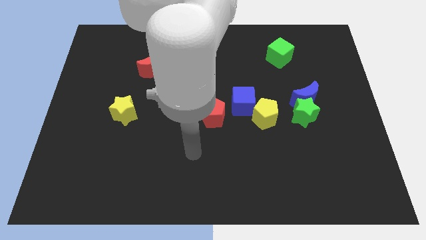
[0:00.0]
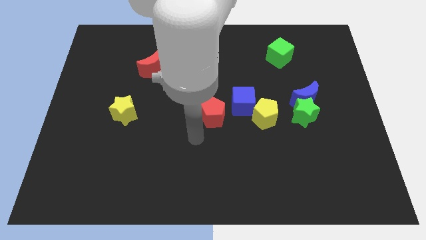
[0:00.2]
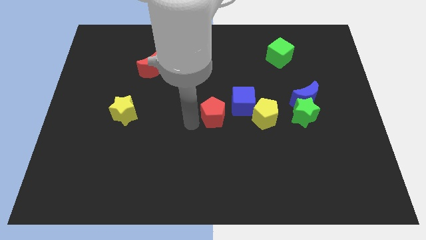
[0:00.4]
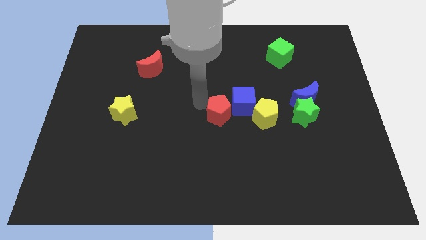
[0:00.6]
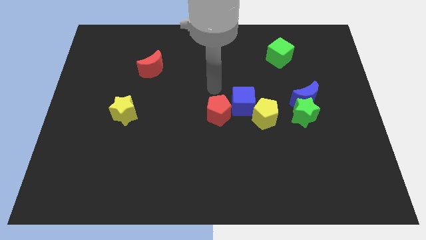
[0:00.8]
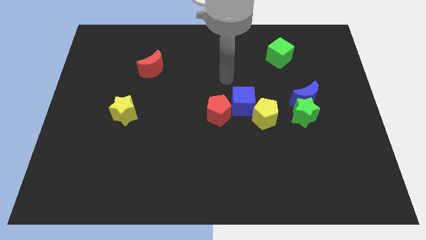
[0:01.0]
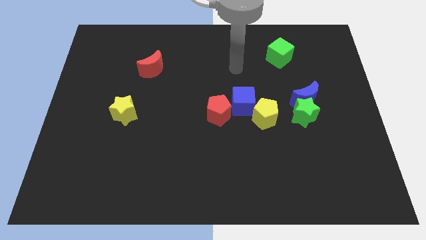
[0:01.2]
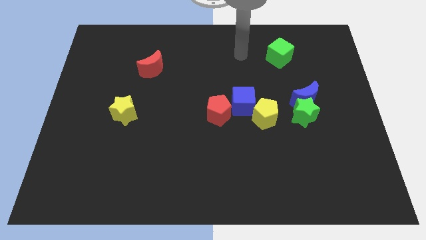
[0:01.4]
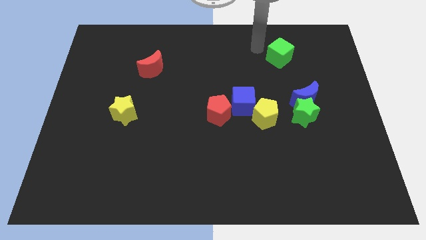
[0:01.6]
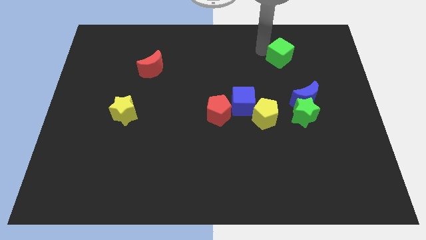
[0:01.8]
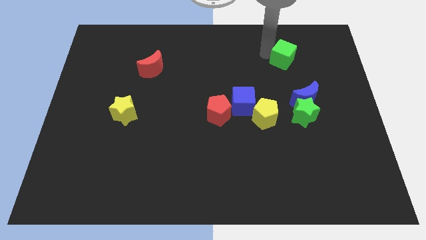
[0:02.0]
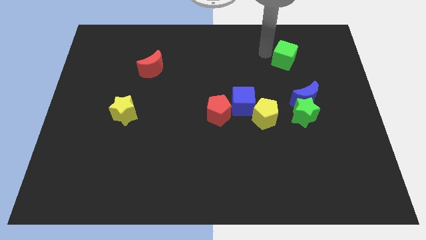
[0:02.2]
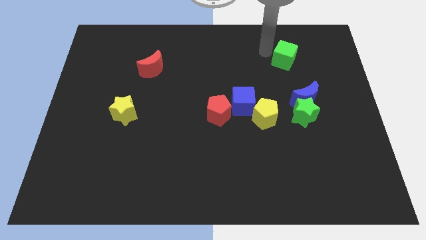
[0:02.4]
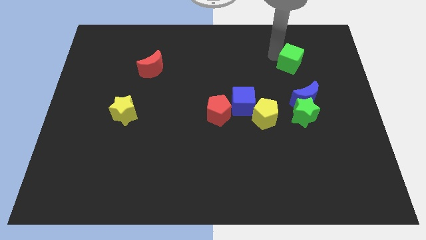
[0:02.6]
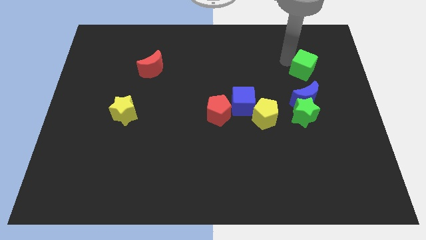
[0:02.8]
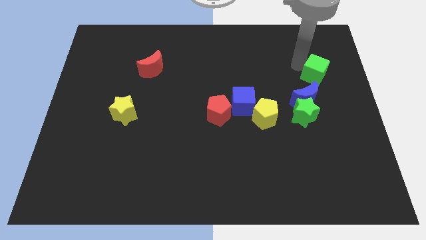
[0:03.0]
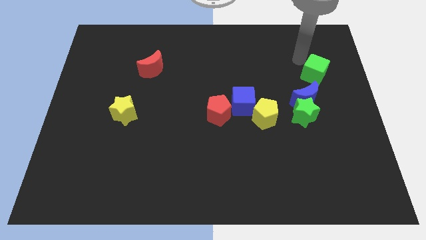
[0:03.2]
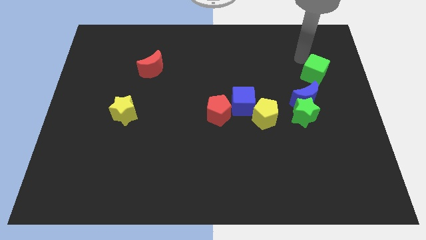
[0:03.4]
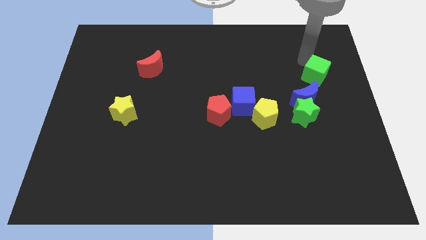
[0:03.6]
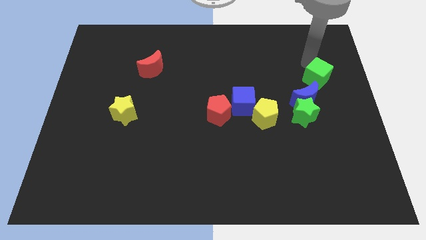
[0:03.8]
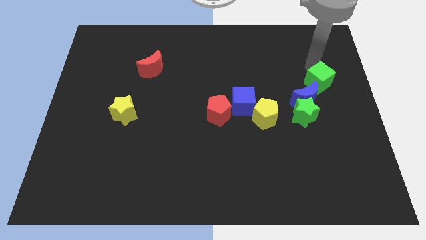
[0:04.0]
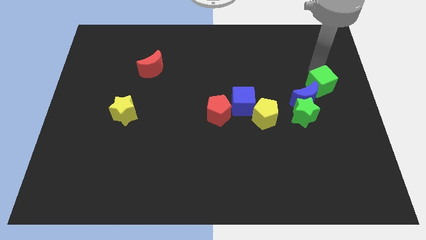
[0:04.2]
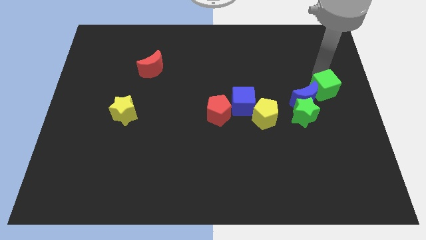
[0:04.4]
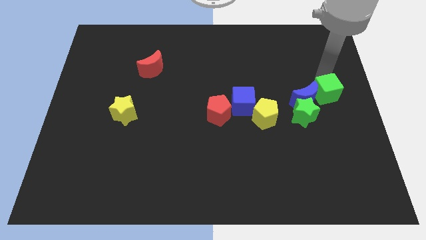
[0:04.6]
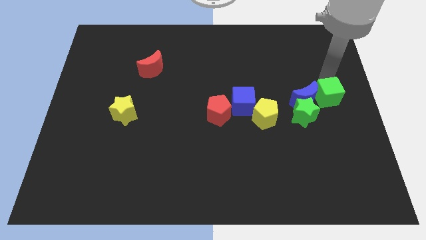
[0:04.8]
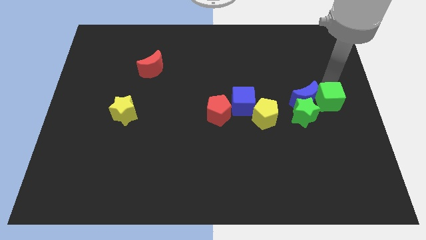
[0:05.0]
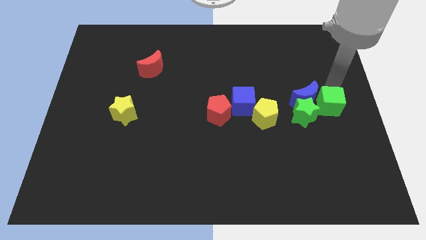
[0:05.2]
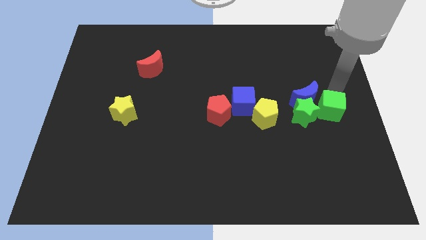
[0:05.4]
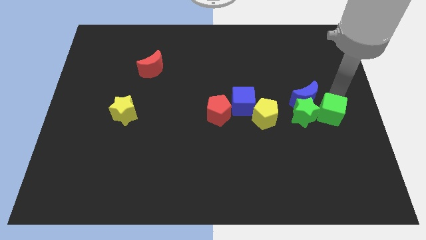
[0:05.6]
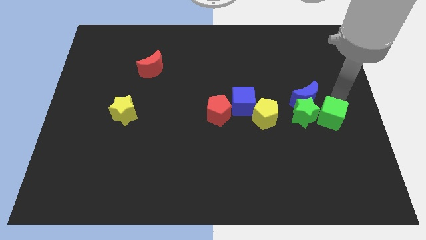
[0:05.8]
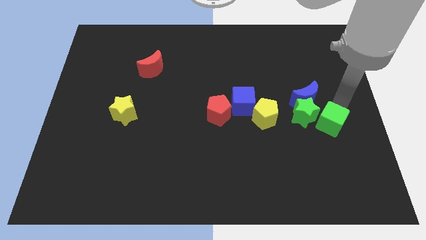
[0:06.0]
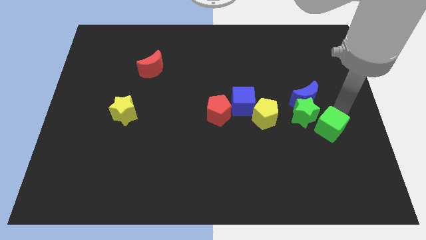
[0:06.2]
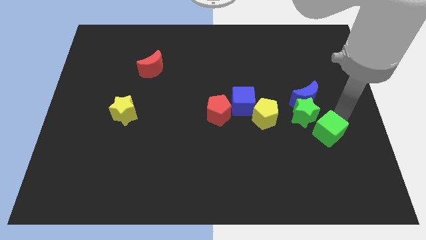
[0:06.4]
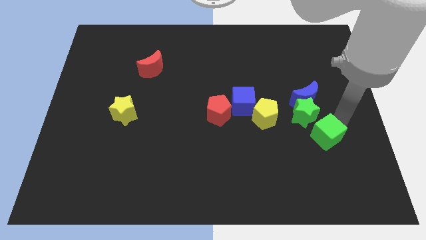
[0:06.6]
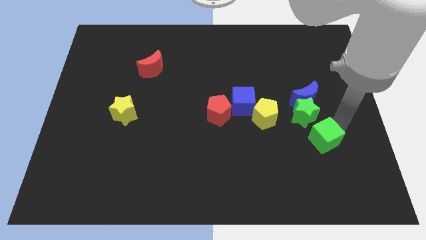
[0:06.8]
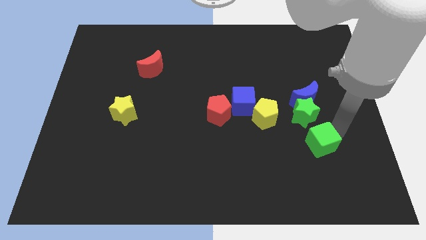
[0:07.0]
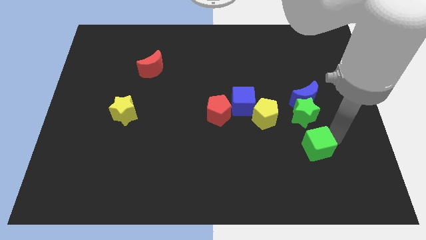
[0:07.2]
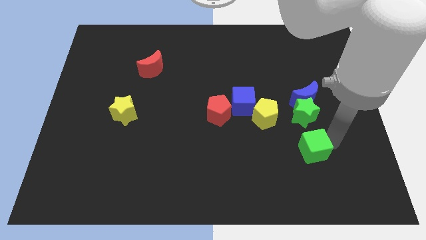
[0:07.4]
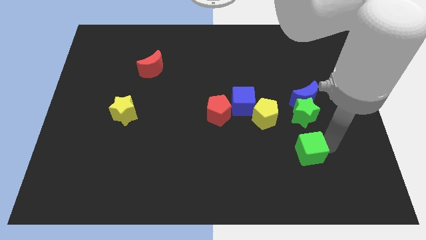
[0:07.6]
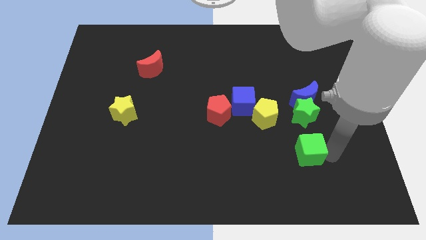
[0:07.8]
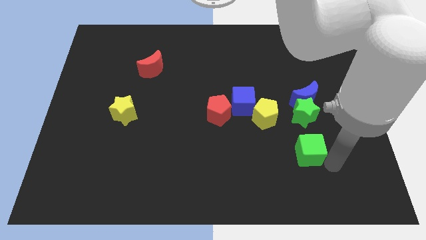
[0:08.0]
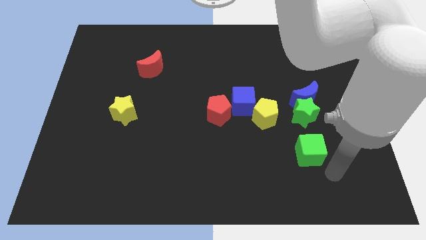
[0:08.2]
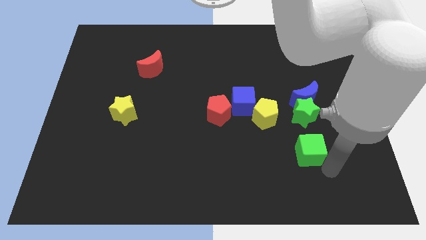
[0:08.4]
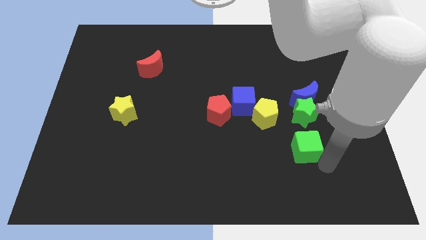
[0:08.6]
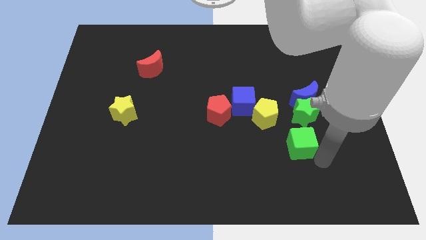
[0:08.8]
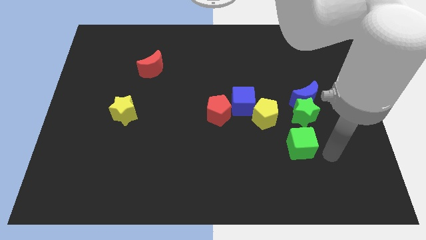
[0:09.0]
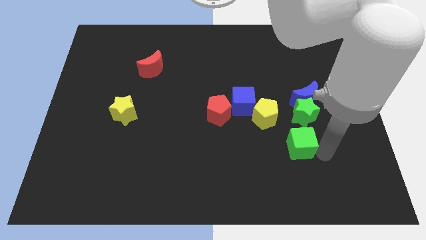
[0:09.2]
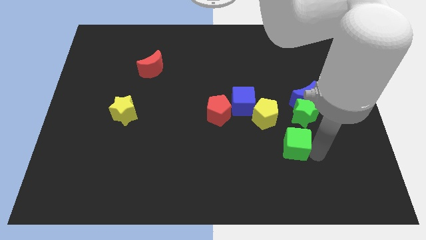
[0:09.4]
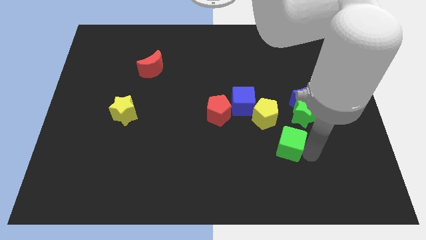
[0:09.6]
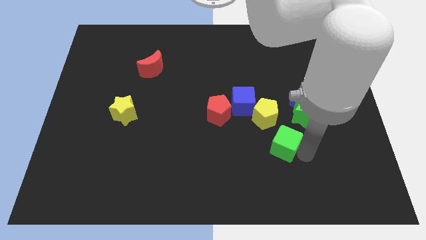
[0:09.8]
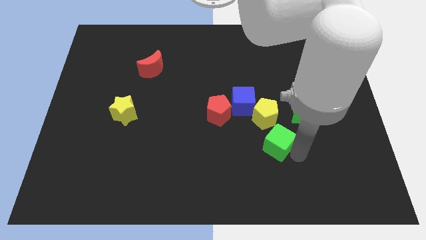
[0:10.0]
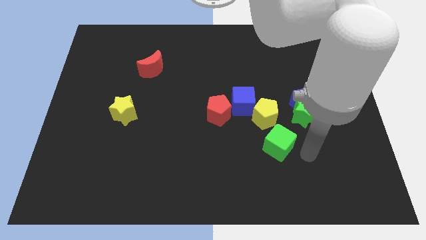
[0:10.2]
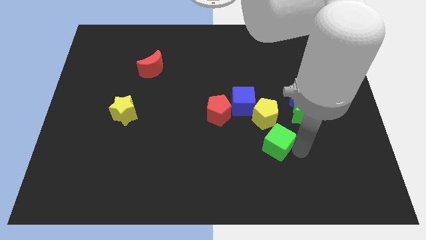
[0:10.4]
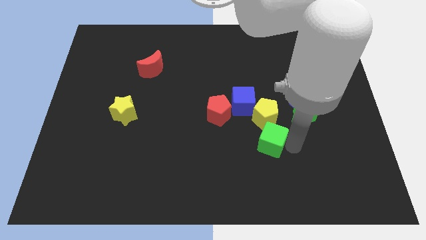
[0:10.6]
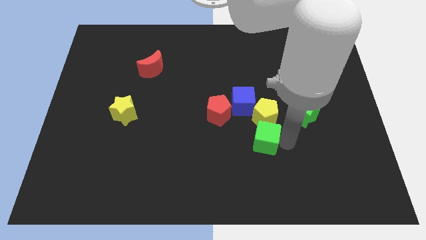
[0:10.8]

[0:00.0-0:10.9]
slide the green cube to the bottom left side of the yellow pentagon

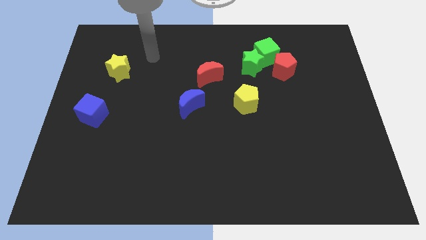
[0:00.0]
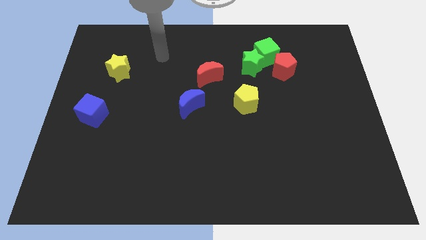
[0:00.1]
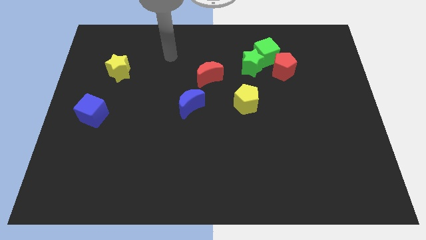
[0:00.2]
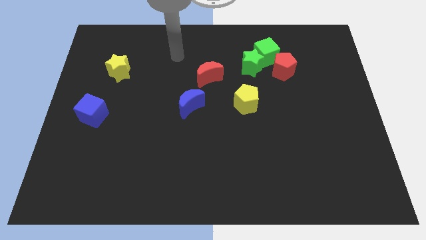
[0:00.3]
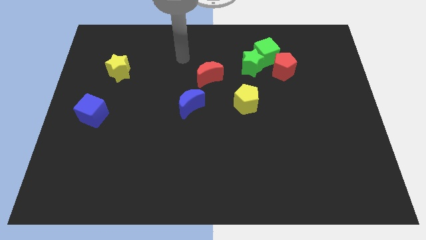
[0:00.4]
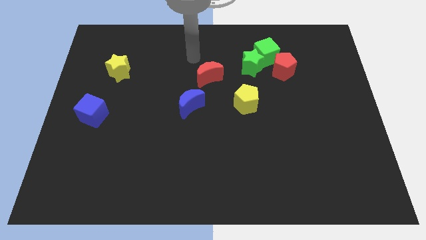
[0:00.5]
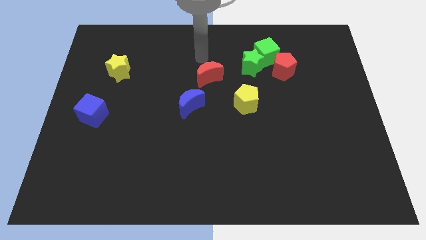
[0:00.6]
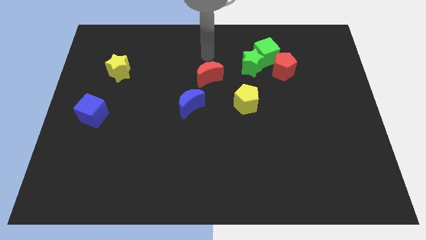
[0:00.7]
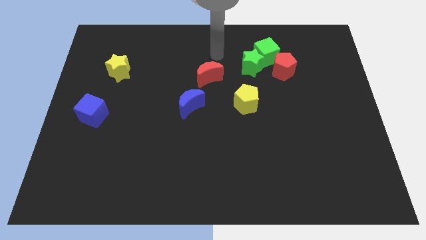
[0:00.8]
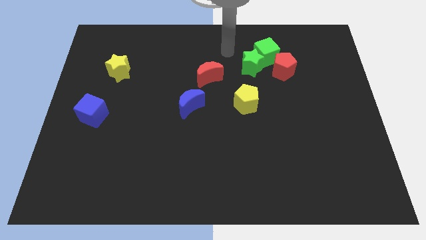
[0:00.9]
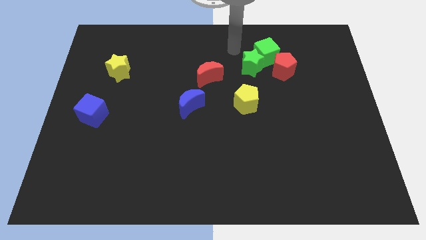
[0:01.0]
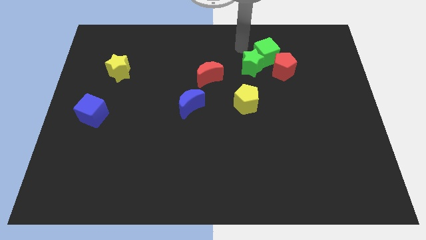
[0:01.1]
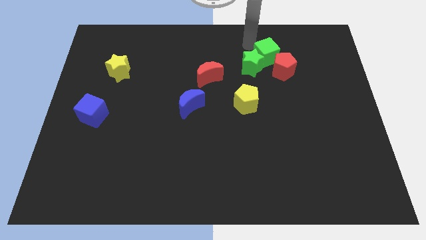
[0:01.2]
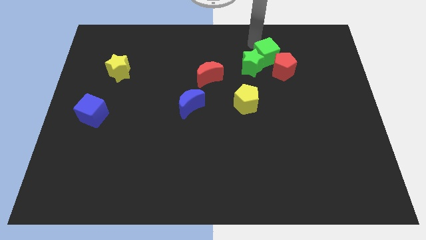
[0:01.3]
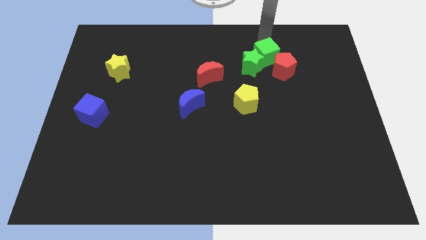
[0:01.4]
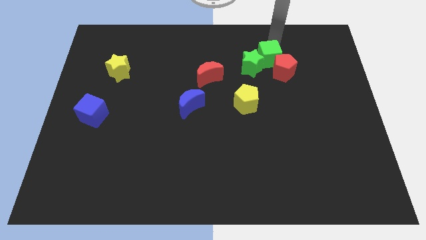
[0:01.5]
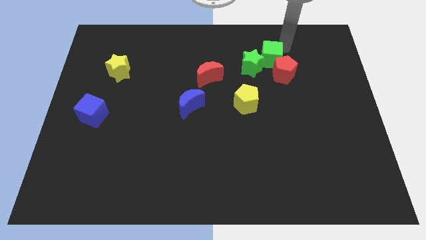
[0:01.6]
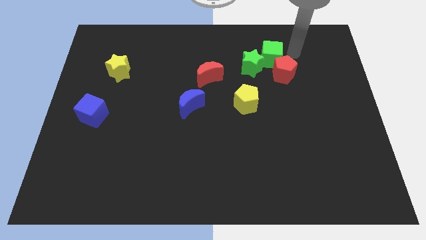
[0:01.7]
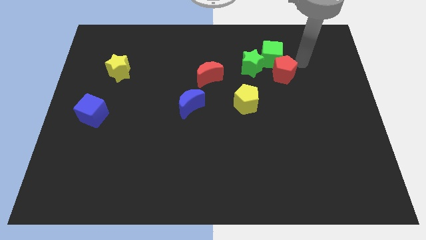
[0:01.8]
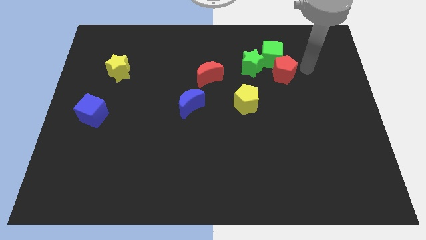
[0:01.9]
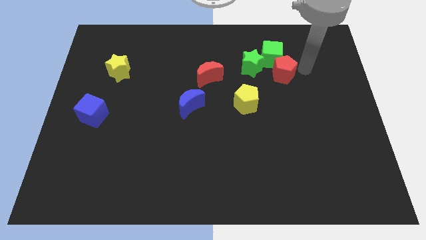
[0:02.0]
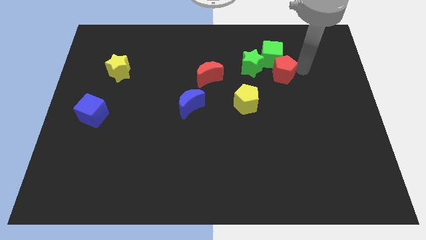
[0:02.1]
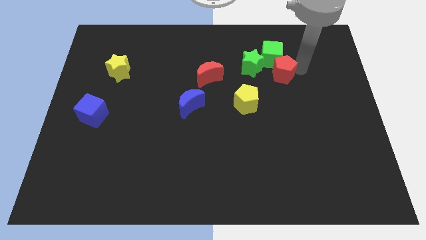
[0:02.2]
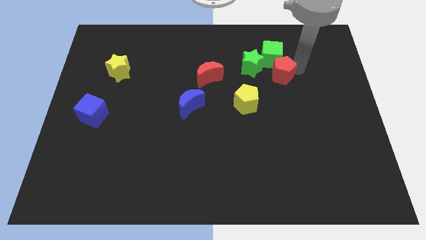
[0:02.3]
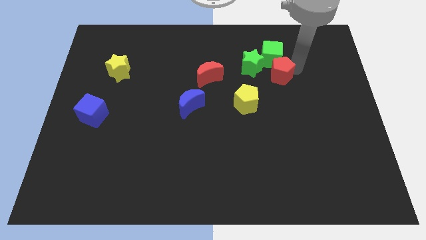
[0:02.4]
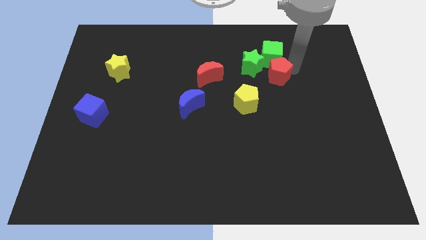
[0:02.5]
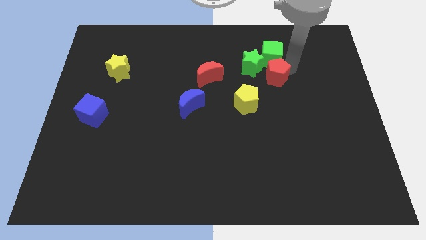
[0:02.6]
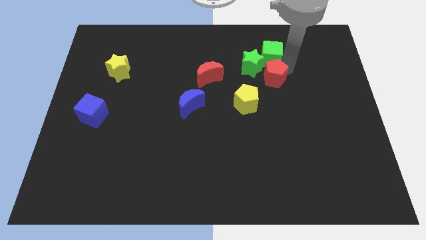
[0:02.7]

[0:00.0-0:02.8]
push the red pentagon to the bottom left of the green cube
